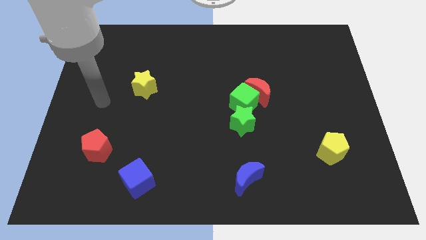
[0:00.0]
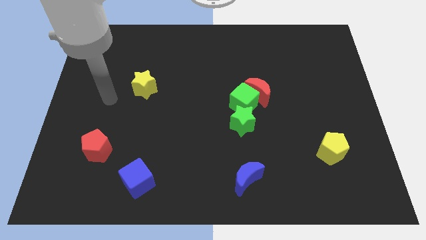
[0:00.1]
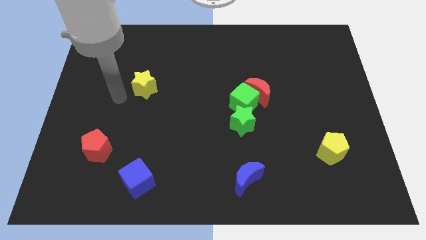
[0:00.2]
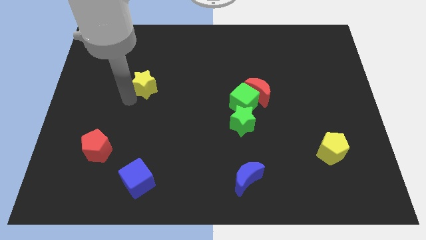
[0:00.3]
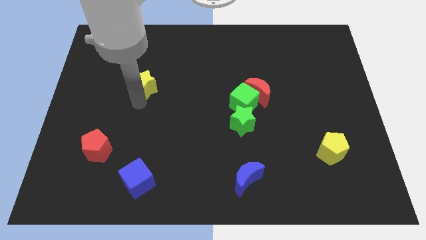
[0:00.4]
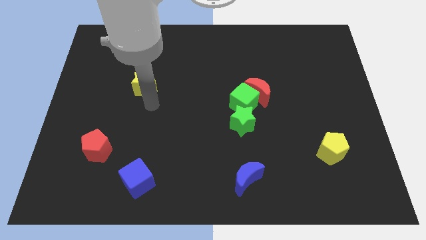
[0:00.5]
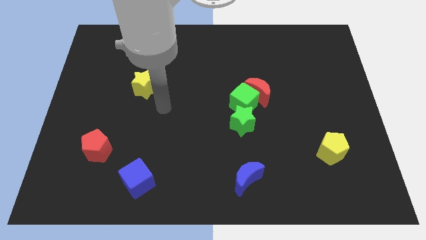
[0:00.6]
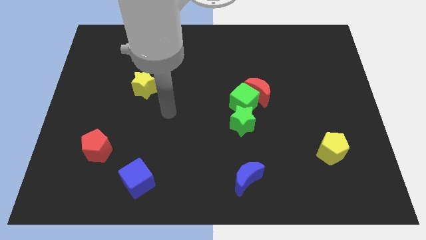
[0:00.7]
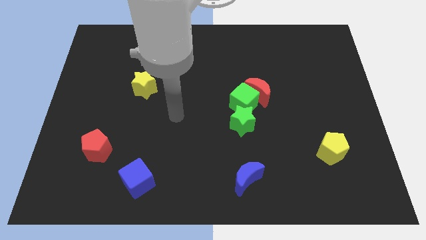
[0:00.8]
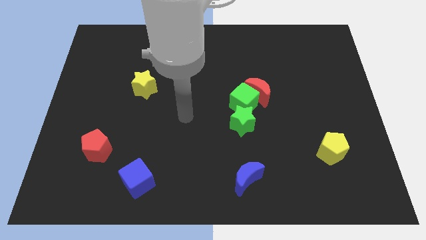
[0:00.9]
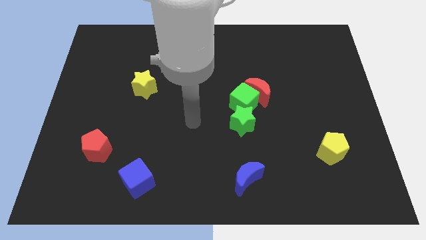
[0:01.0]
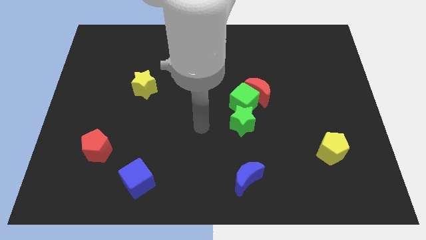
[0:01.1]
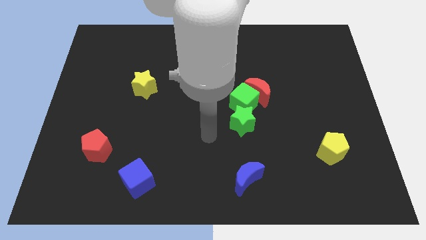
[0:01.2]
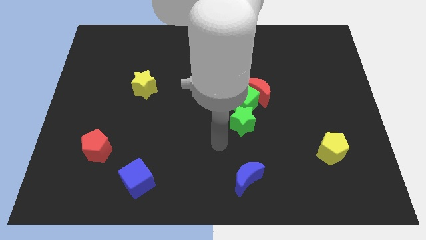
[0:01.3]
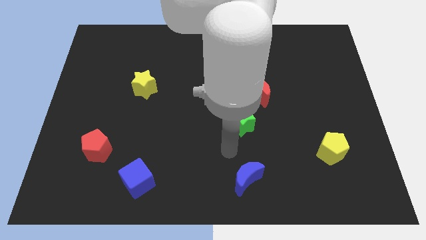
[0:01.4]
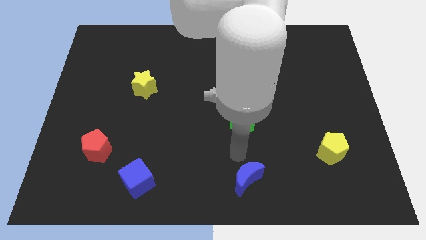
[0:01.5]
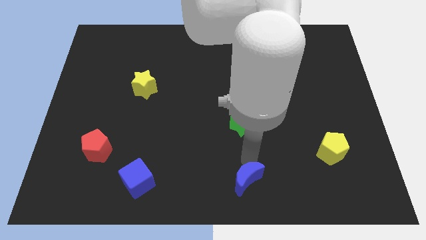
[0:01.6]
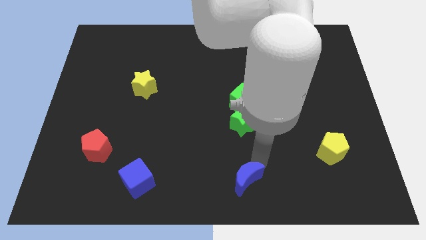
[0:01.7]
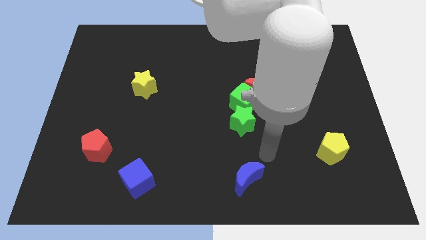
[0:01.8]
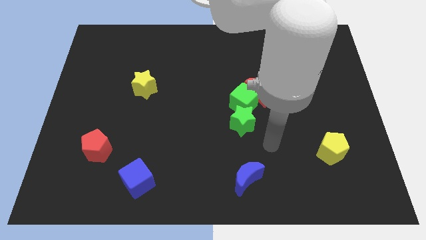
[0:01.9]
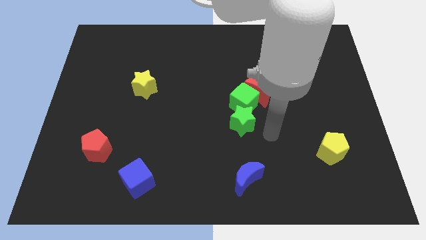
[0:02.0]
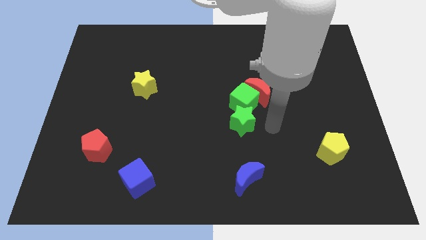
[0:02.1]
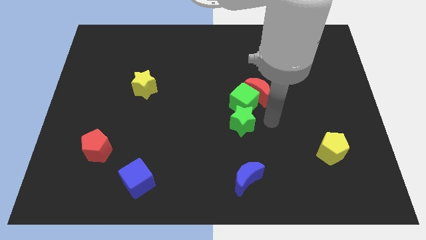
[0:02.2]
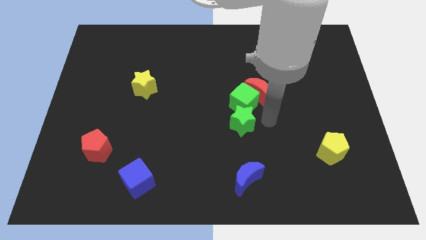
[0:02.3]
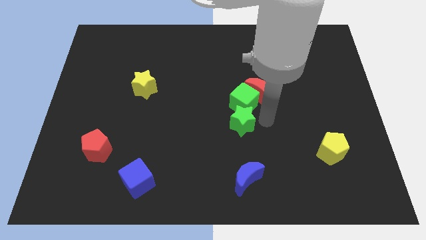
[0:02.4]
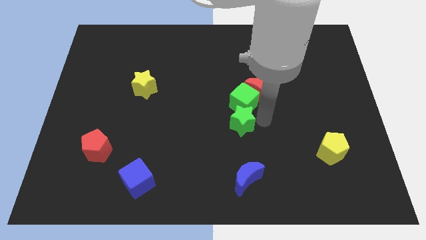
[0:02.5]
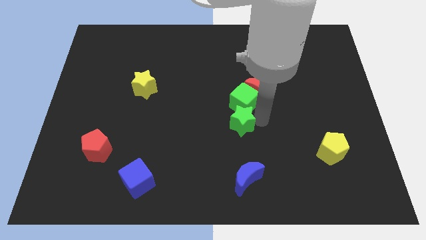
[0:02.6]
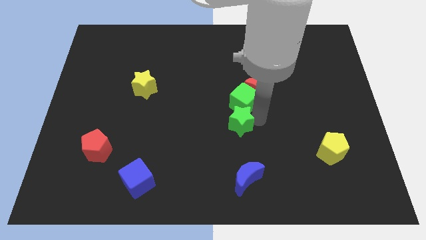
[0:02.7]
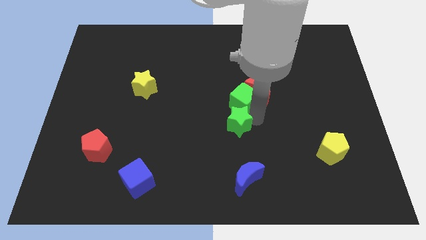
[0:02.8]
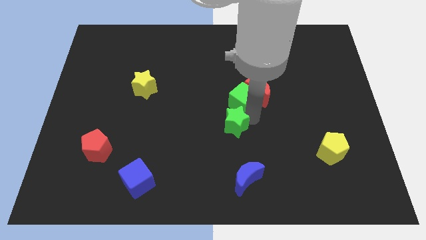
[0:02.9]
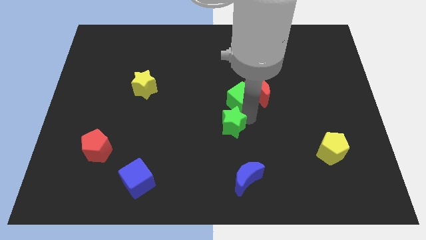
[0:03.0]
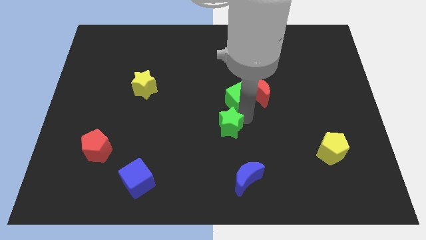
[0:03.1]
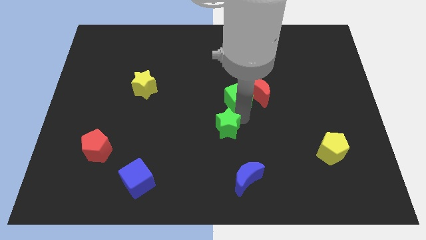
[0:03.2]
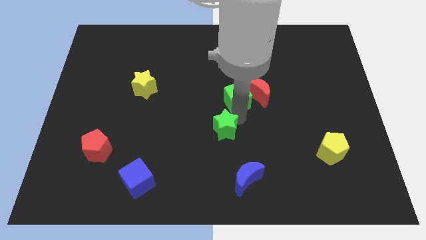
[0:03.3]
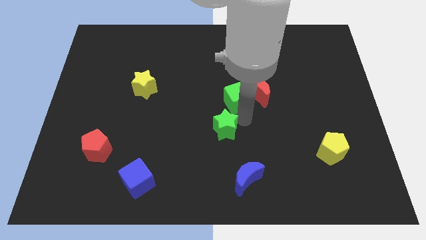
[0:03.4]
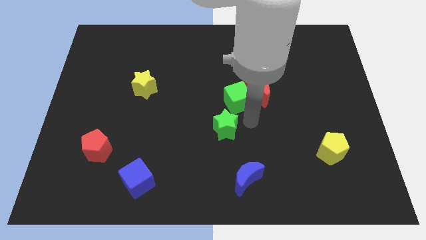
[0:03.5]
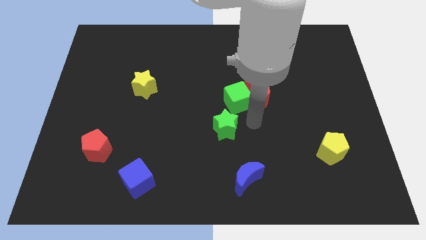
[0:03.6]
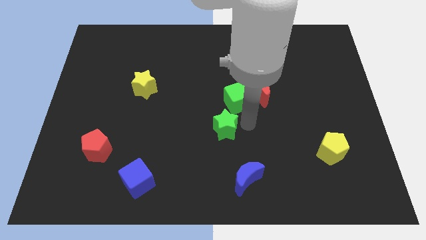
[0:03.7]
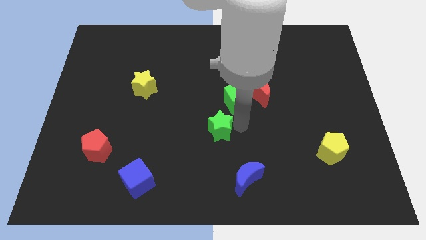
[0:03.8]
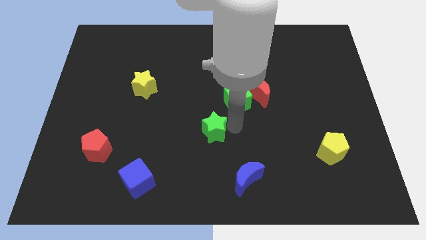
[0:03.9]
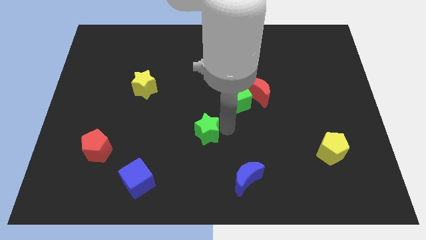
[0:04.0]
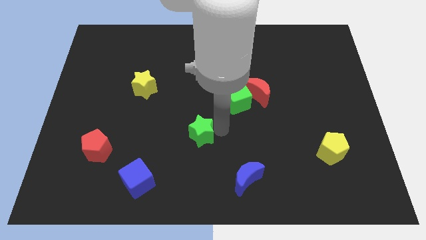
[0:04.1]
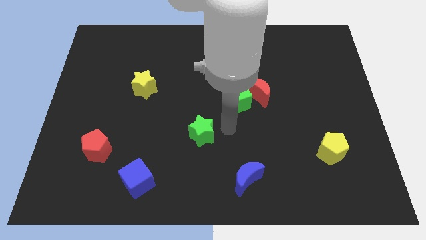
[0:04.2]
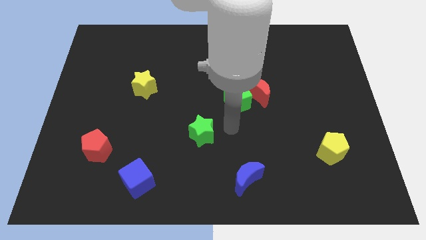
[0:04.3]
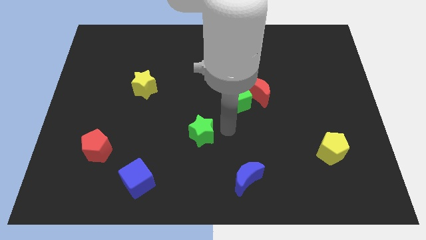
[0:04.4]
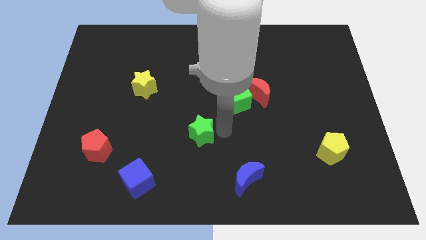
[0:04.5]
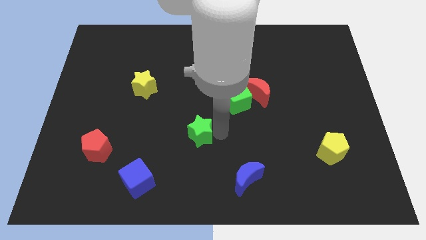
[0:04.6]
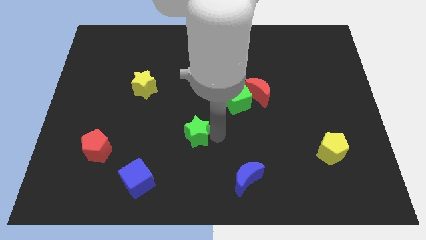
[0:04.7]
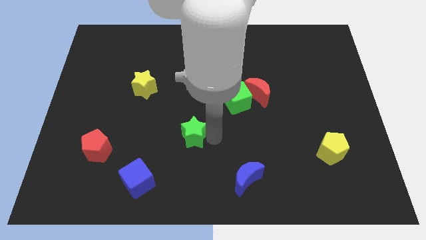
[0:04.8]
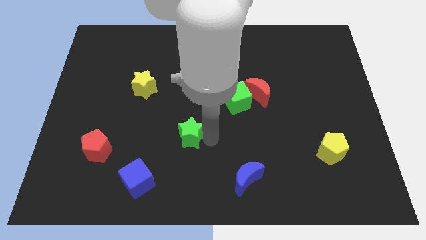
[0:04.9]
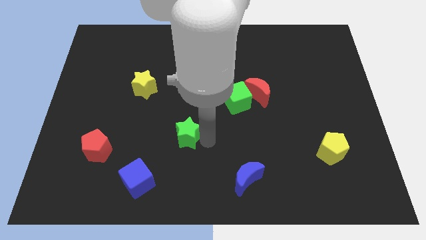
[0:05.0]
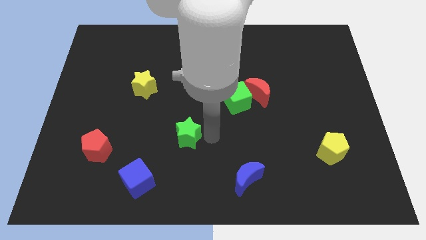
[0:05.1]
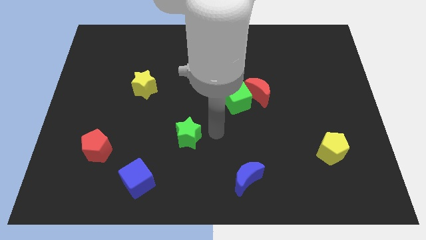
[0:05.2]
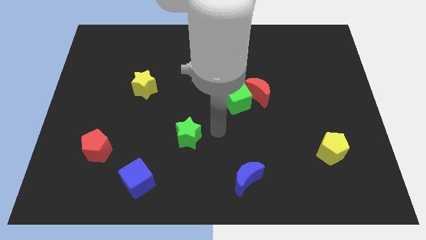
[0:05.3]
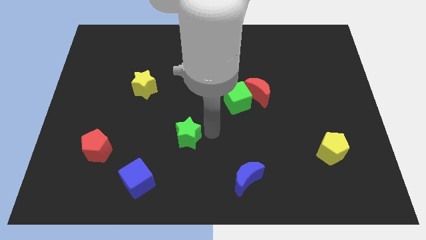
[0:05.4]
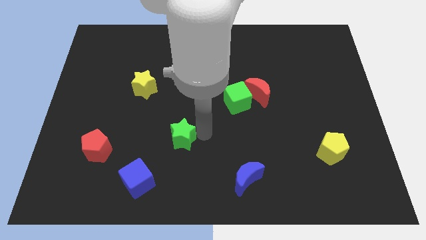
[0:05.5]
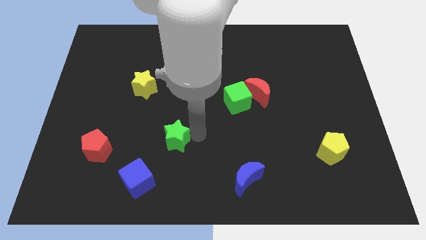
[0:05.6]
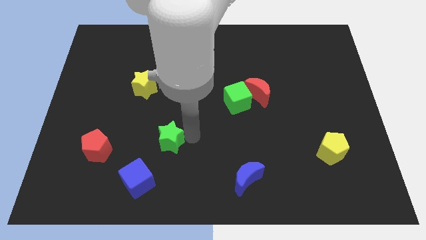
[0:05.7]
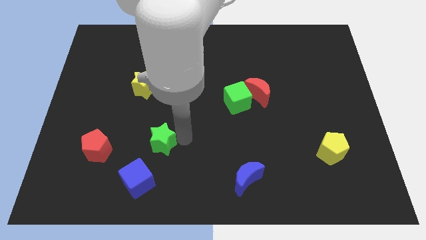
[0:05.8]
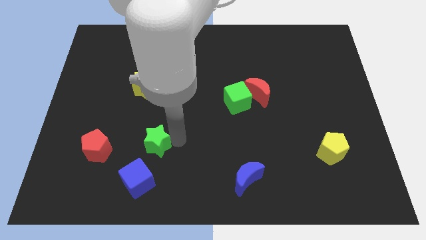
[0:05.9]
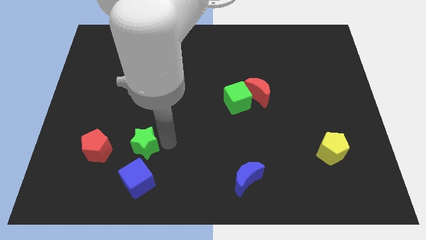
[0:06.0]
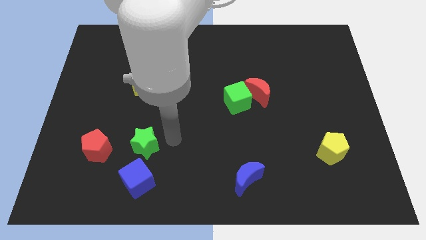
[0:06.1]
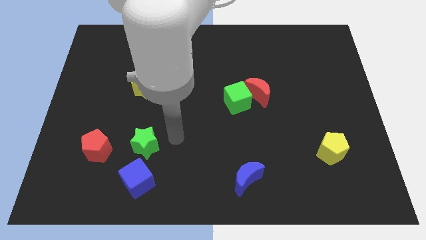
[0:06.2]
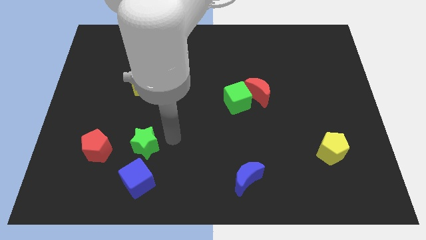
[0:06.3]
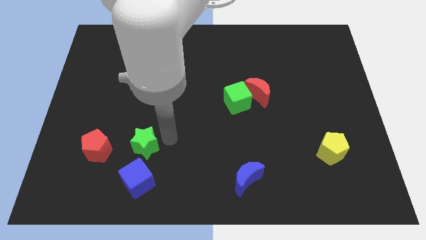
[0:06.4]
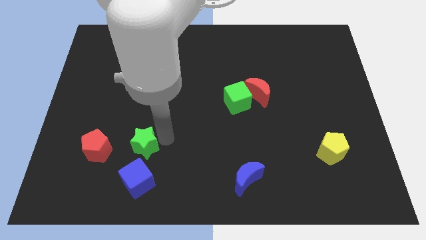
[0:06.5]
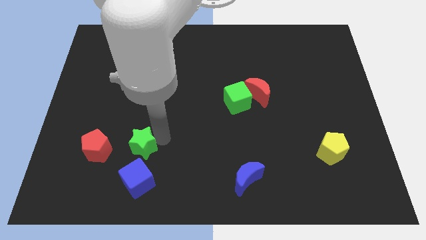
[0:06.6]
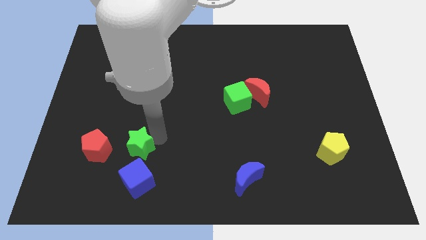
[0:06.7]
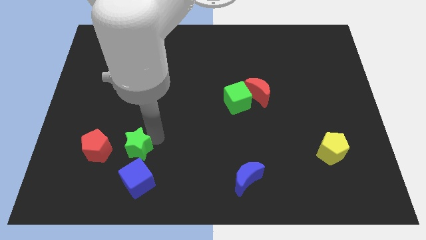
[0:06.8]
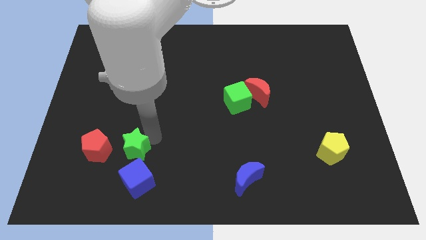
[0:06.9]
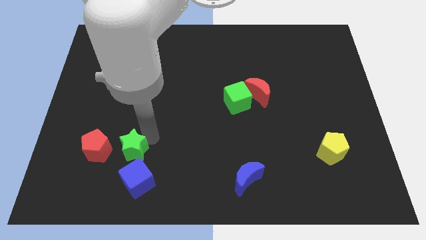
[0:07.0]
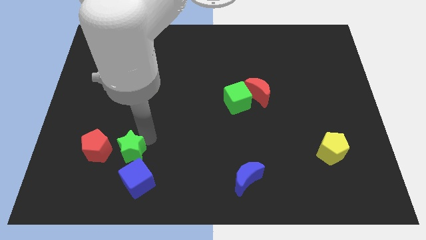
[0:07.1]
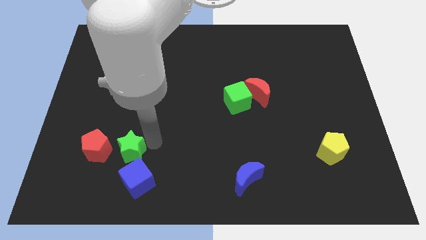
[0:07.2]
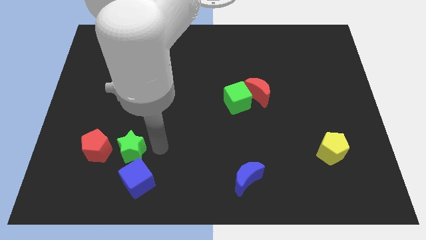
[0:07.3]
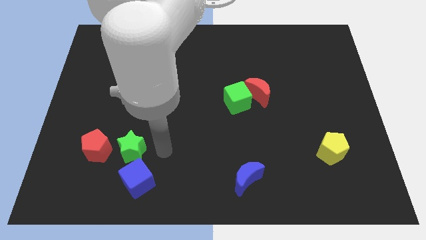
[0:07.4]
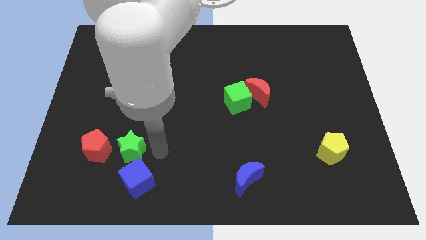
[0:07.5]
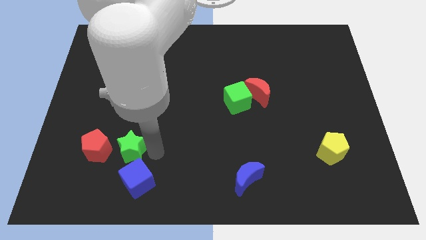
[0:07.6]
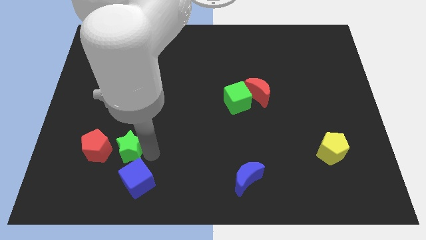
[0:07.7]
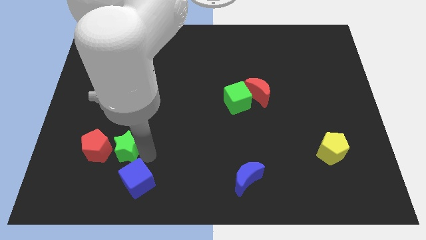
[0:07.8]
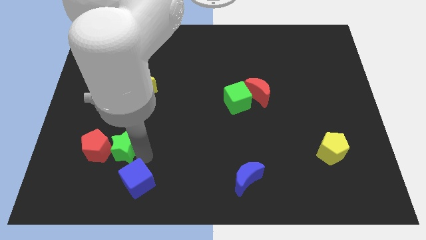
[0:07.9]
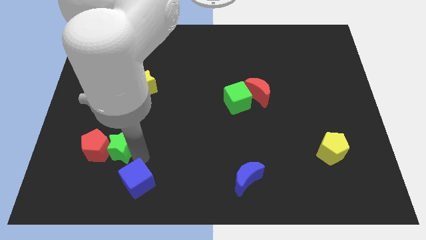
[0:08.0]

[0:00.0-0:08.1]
slide the green star to the red pentagon
